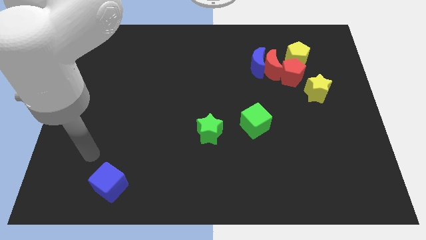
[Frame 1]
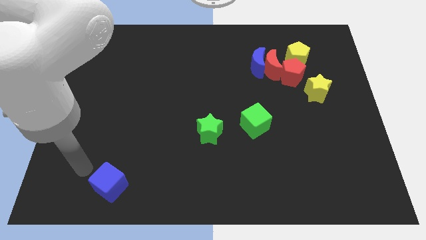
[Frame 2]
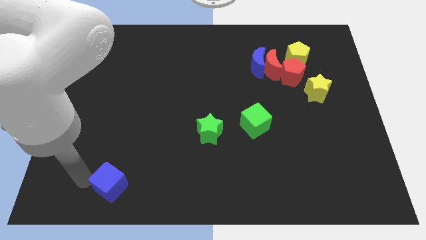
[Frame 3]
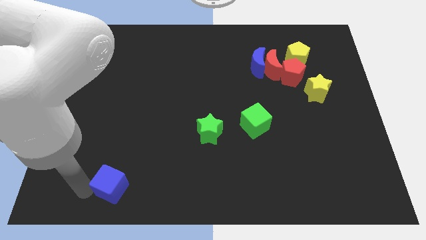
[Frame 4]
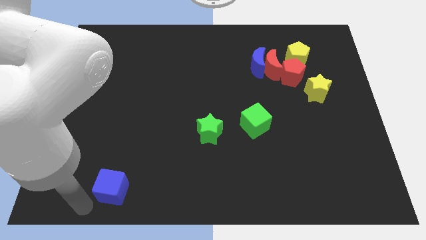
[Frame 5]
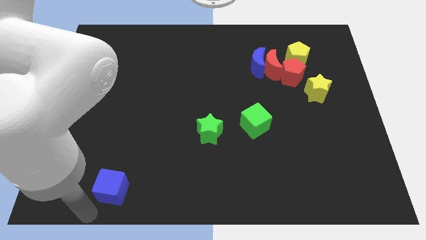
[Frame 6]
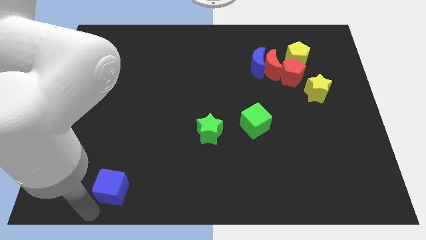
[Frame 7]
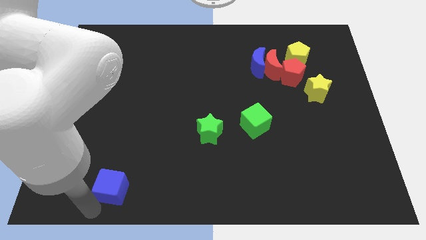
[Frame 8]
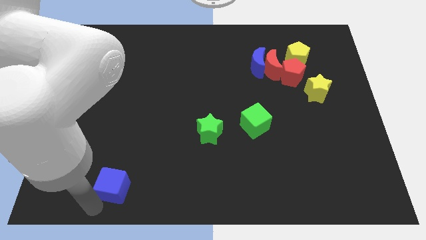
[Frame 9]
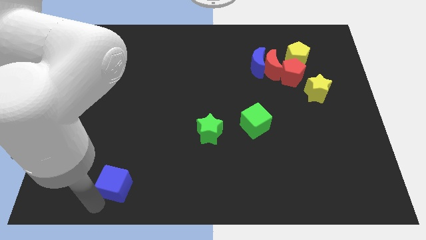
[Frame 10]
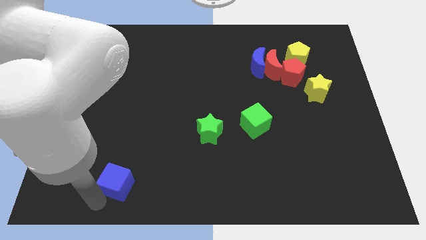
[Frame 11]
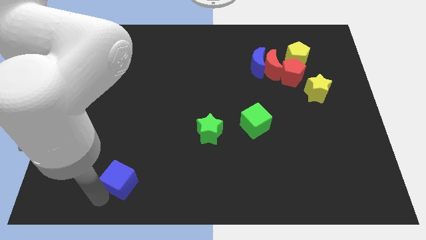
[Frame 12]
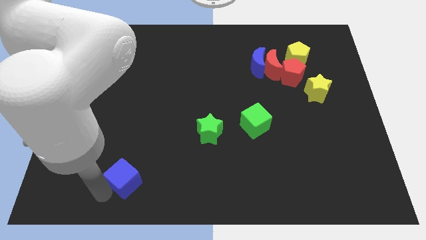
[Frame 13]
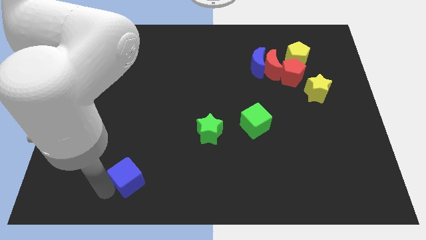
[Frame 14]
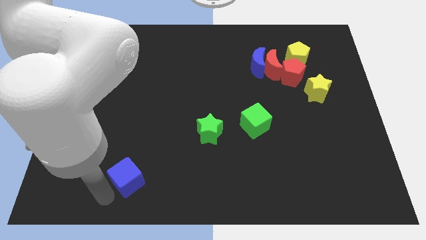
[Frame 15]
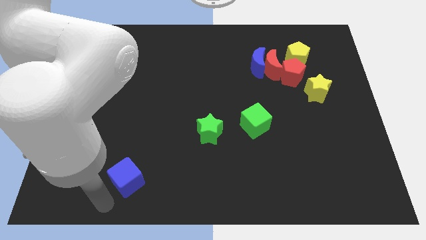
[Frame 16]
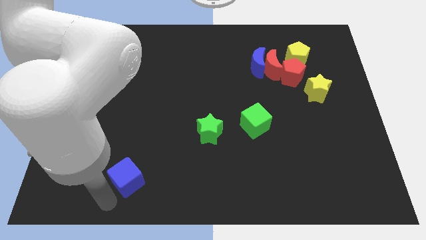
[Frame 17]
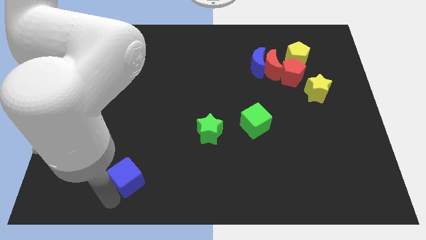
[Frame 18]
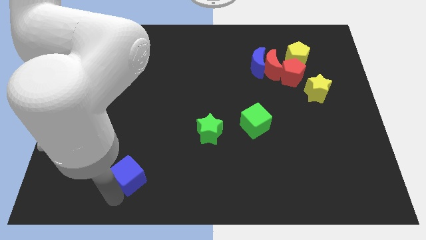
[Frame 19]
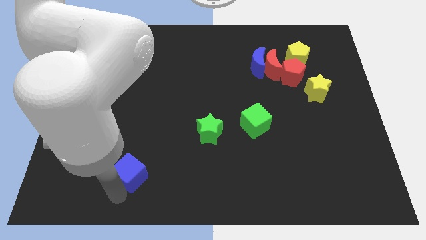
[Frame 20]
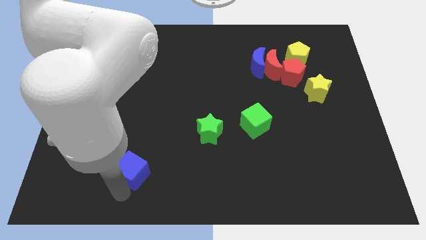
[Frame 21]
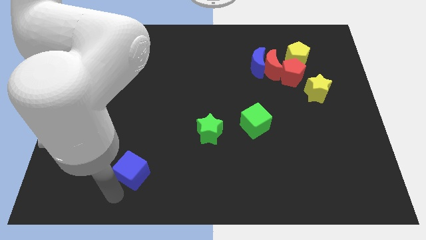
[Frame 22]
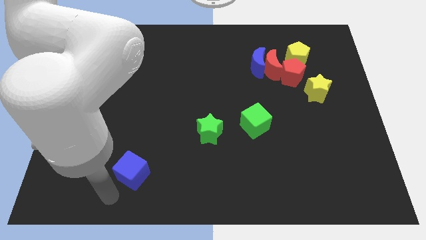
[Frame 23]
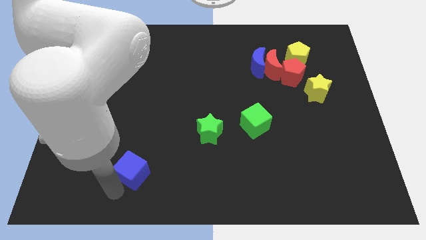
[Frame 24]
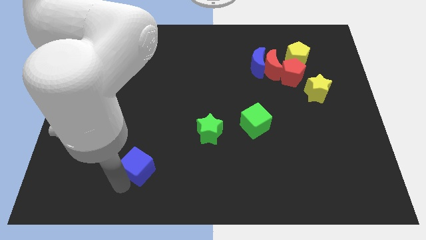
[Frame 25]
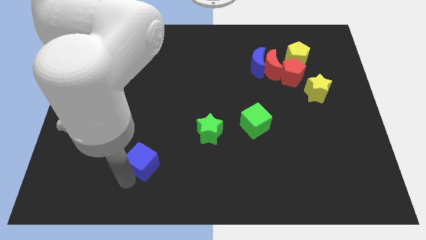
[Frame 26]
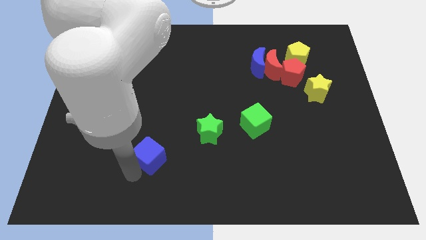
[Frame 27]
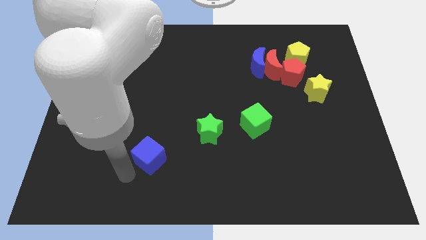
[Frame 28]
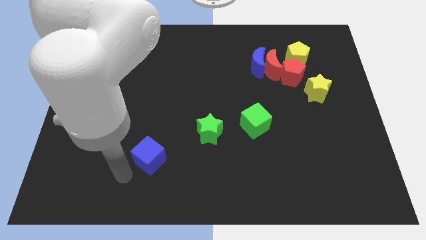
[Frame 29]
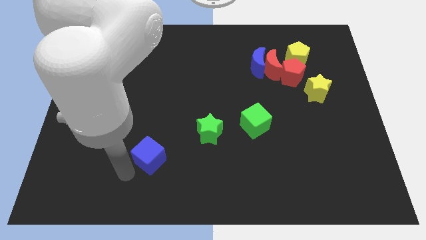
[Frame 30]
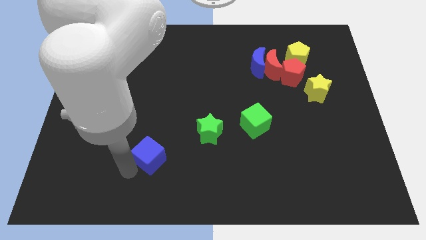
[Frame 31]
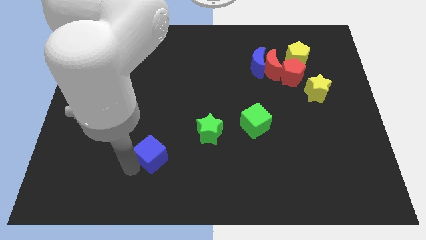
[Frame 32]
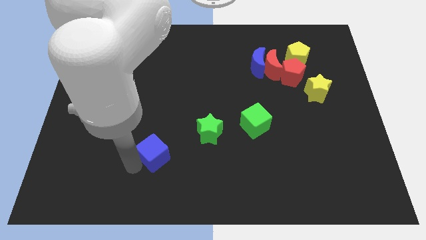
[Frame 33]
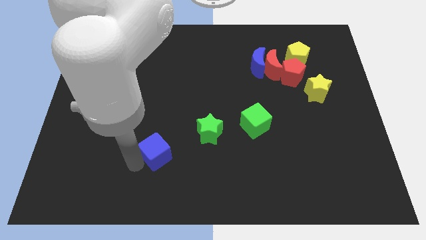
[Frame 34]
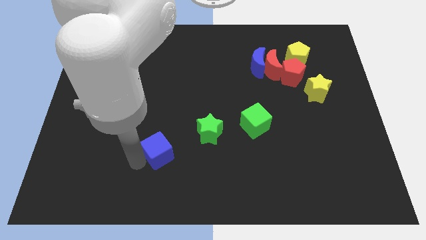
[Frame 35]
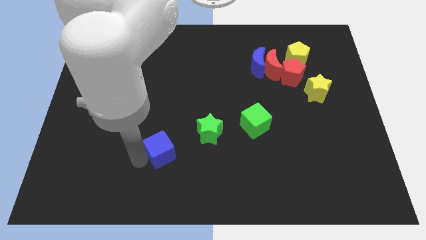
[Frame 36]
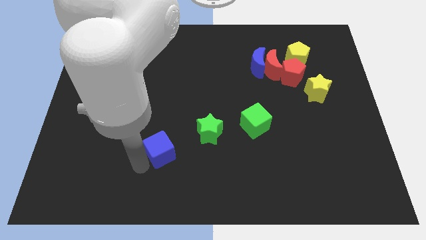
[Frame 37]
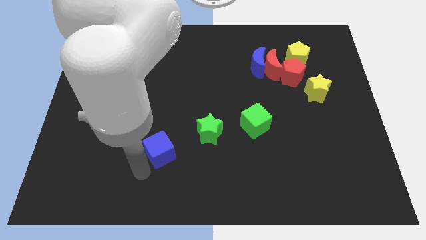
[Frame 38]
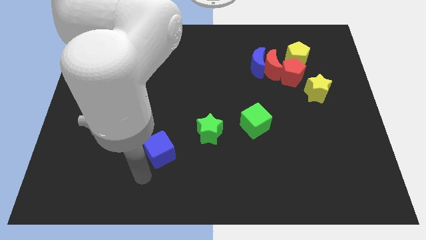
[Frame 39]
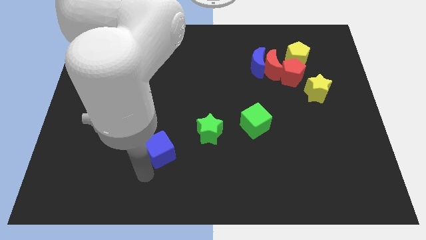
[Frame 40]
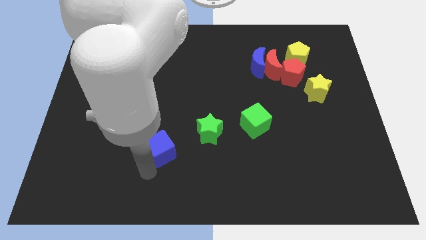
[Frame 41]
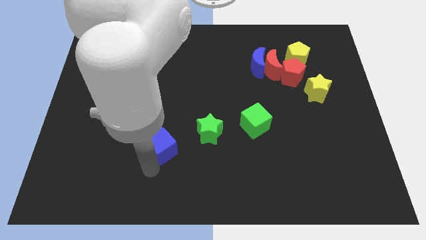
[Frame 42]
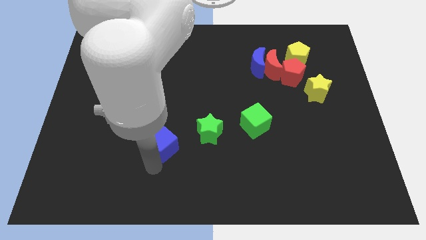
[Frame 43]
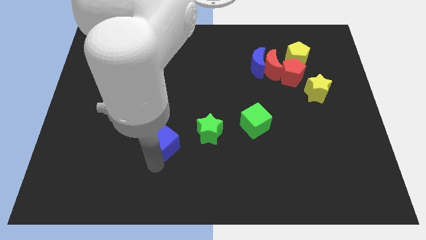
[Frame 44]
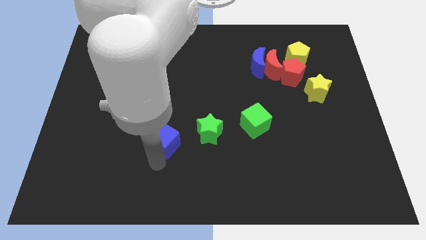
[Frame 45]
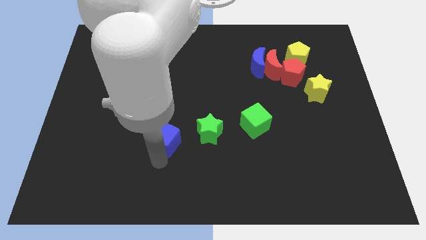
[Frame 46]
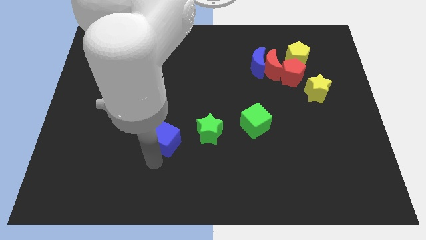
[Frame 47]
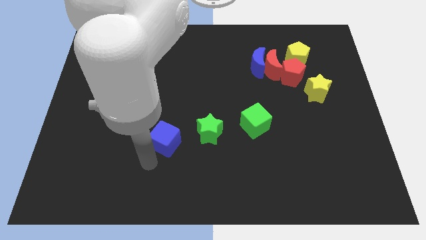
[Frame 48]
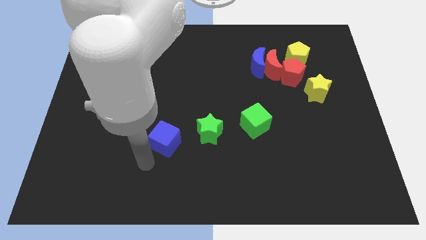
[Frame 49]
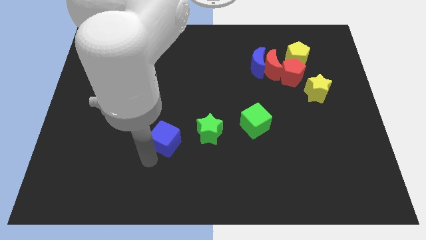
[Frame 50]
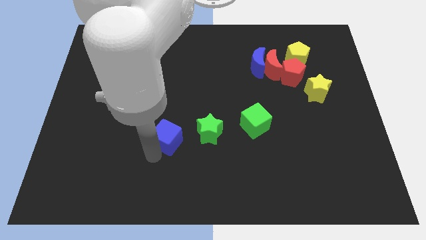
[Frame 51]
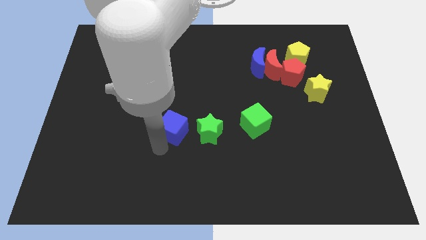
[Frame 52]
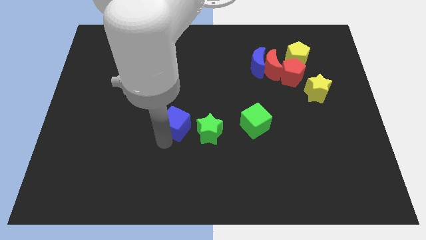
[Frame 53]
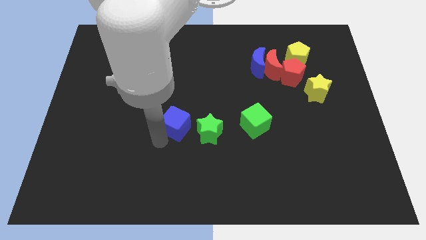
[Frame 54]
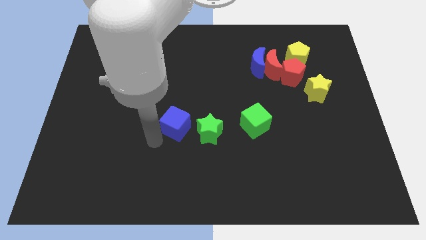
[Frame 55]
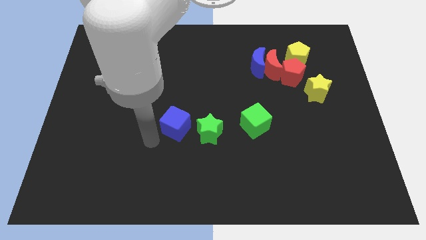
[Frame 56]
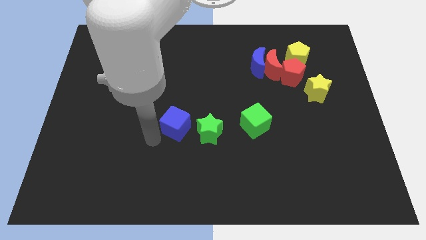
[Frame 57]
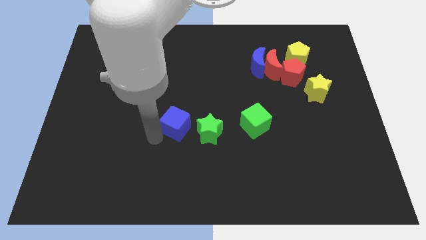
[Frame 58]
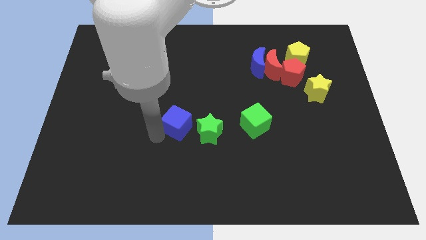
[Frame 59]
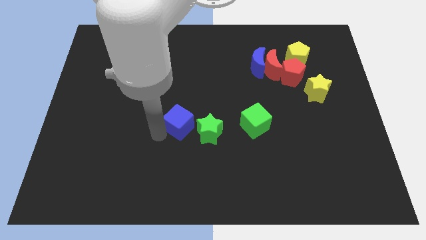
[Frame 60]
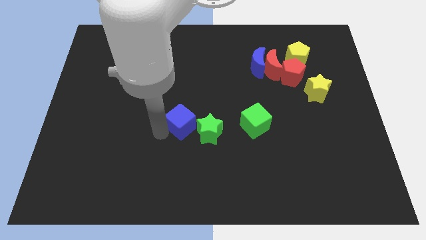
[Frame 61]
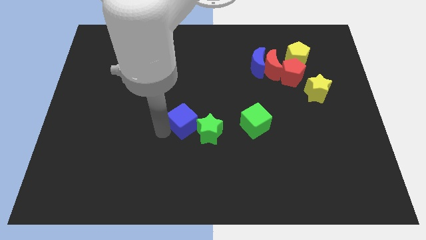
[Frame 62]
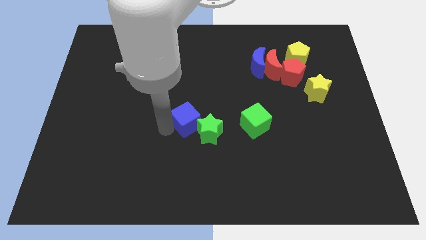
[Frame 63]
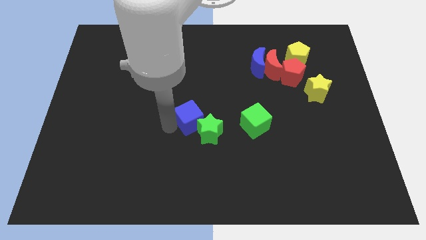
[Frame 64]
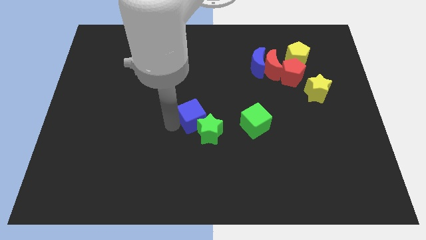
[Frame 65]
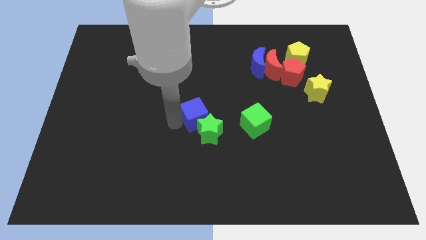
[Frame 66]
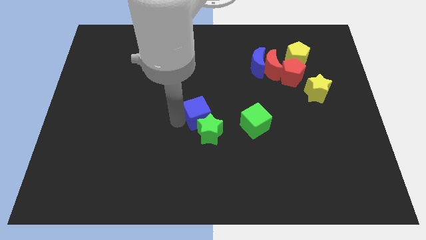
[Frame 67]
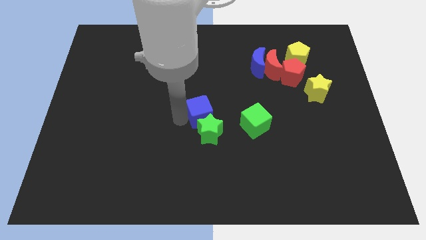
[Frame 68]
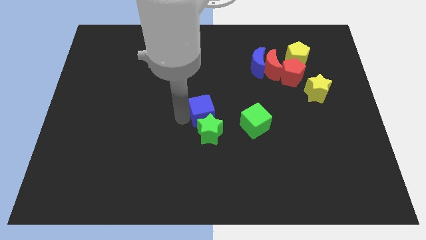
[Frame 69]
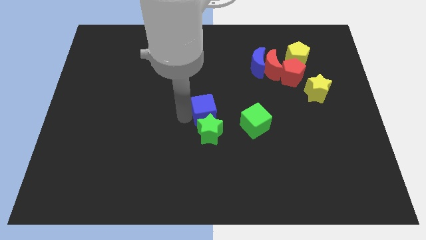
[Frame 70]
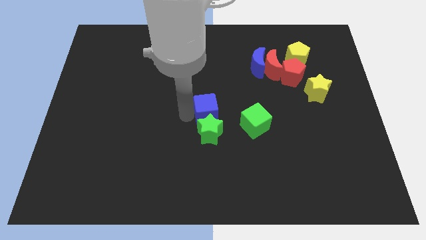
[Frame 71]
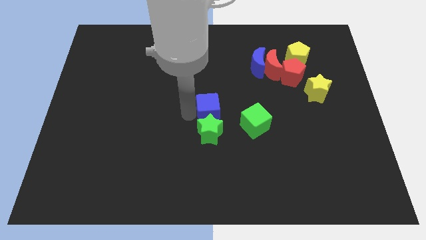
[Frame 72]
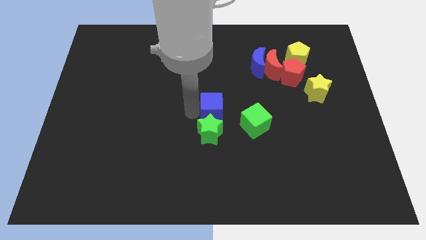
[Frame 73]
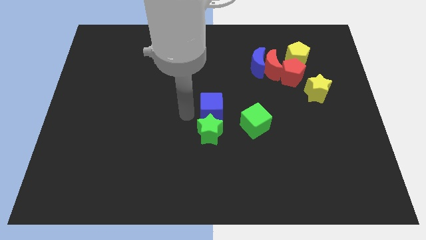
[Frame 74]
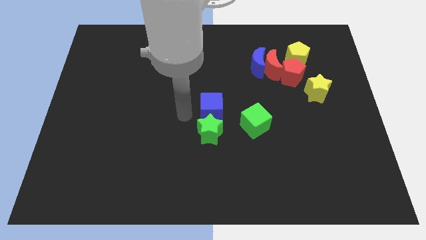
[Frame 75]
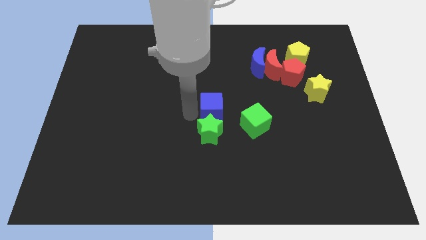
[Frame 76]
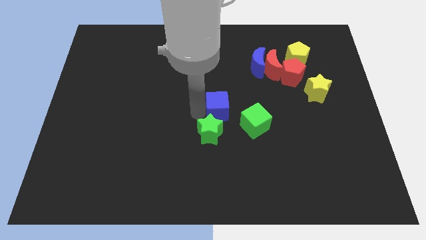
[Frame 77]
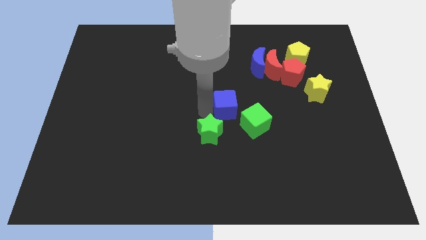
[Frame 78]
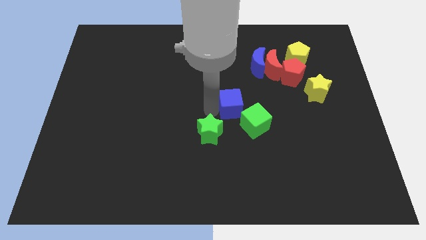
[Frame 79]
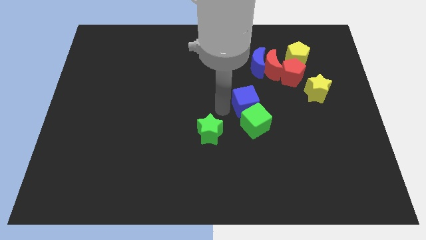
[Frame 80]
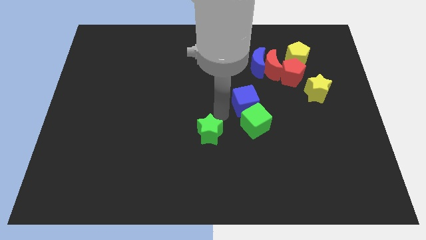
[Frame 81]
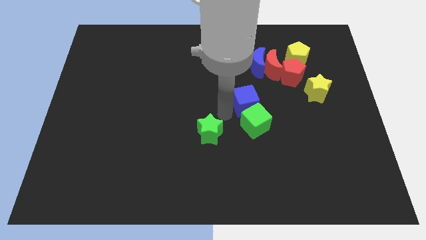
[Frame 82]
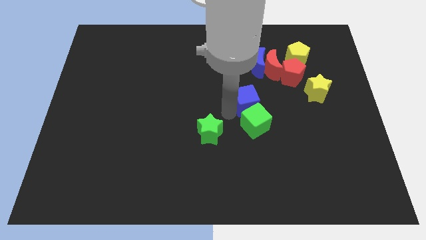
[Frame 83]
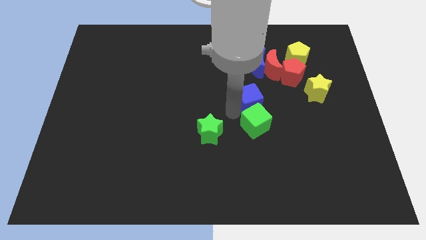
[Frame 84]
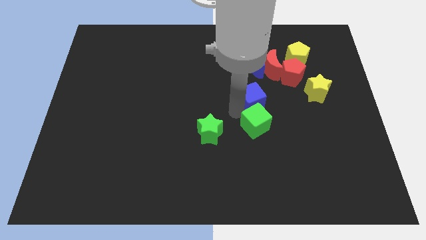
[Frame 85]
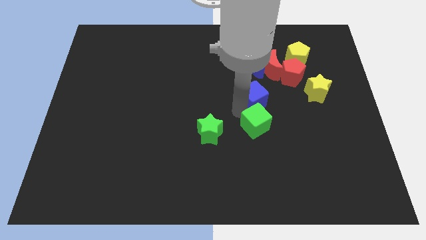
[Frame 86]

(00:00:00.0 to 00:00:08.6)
move the blue cube to the bottom left of the red pentagon
